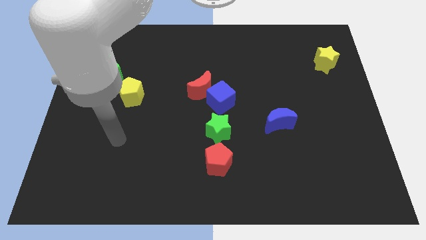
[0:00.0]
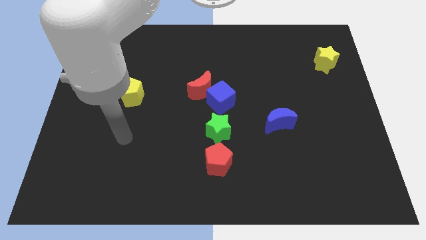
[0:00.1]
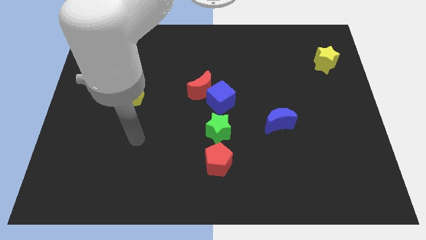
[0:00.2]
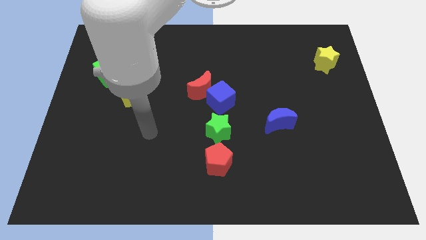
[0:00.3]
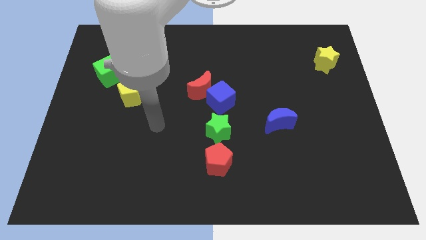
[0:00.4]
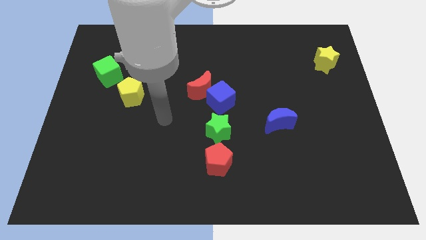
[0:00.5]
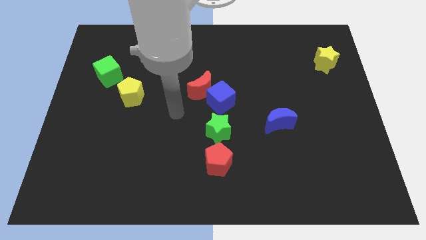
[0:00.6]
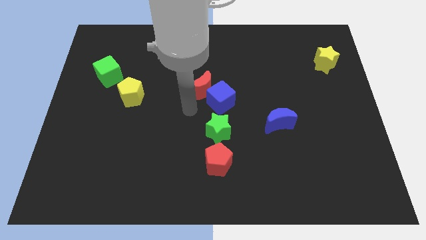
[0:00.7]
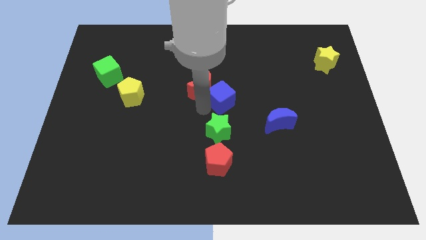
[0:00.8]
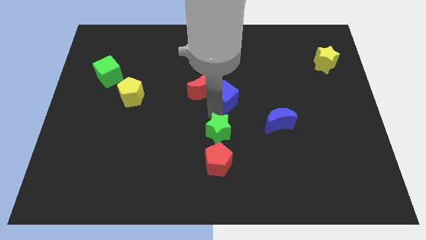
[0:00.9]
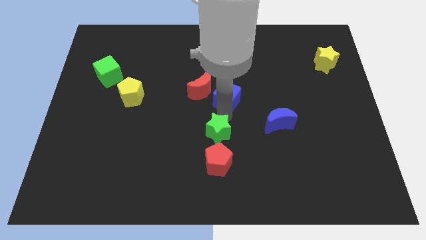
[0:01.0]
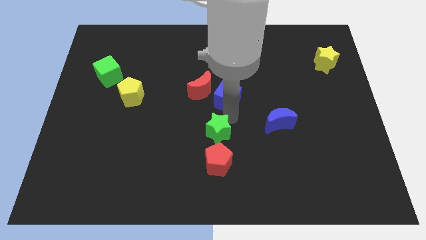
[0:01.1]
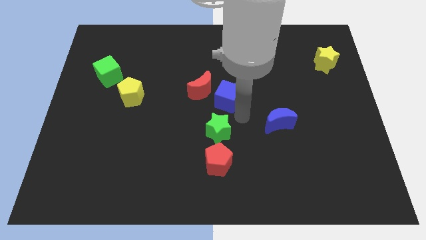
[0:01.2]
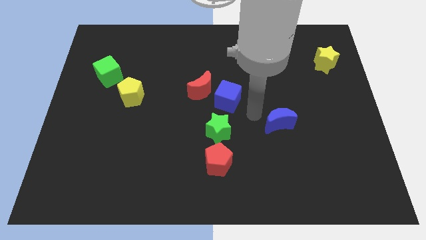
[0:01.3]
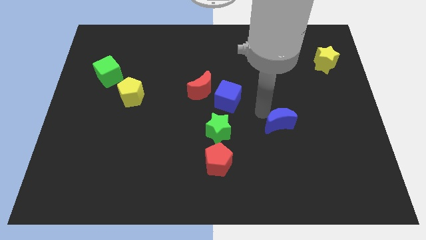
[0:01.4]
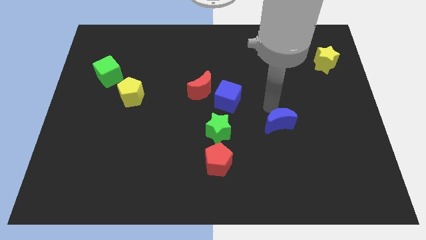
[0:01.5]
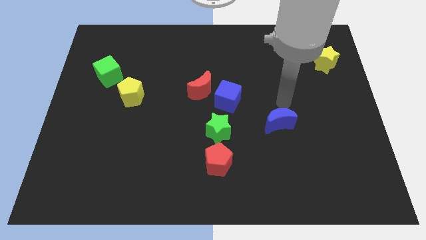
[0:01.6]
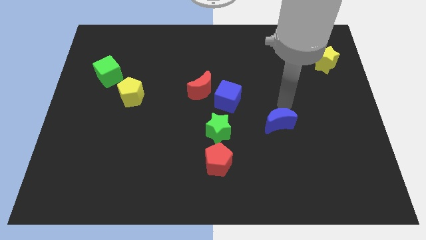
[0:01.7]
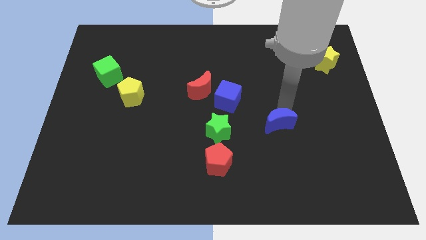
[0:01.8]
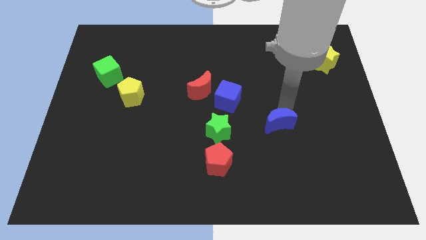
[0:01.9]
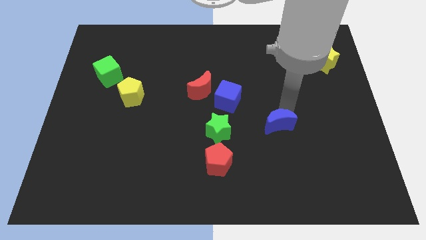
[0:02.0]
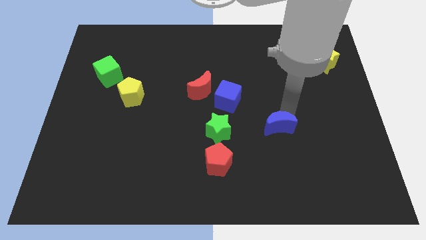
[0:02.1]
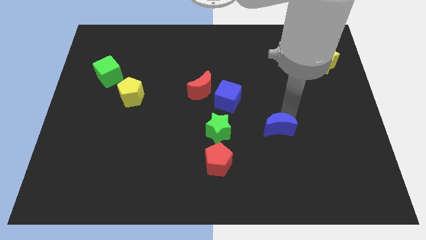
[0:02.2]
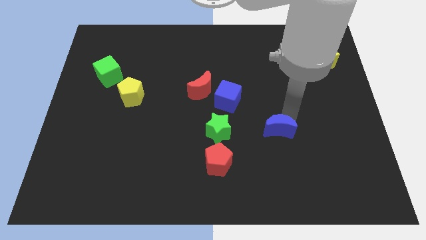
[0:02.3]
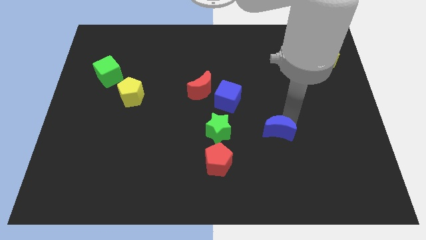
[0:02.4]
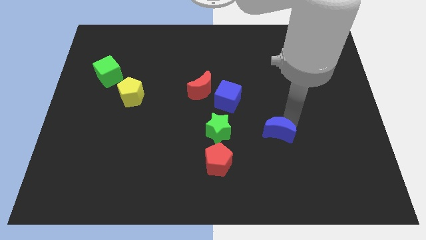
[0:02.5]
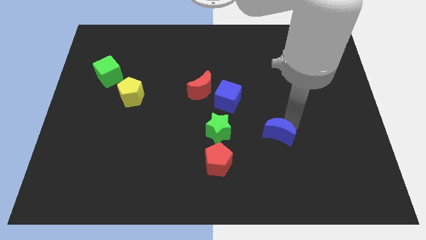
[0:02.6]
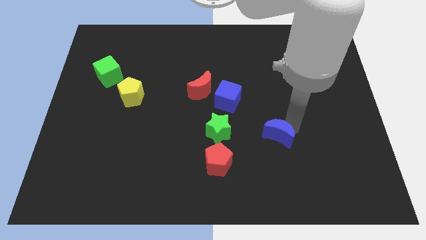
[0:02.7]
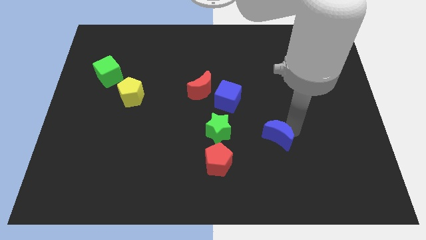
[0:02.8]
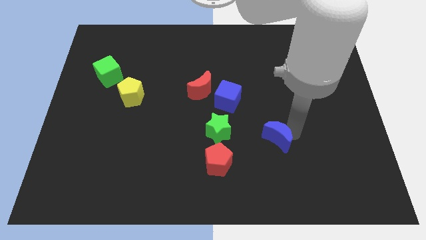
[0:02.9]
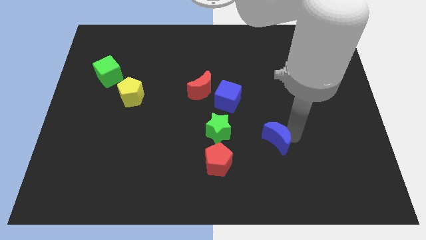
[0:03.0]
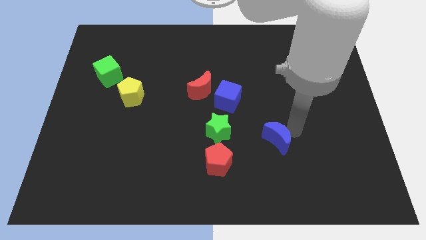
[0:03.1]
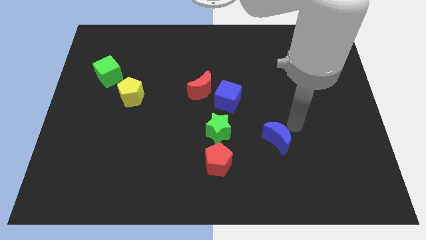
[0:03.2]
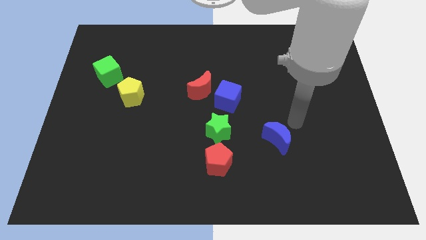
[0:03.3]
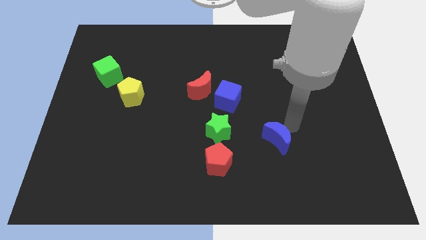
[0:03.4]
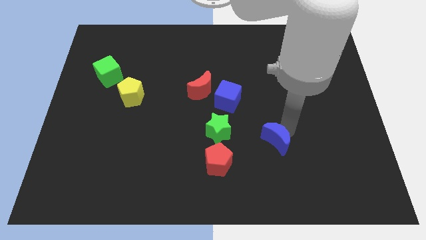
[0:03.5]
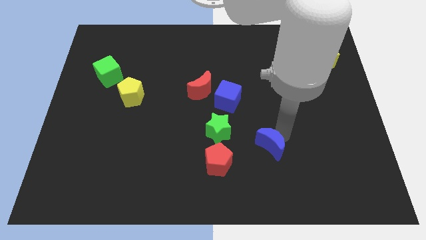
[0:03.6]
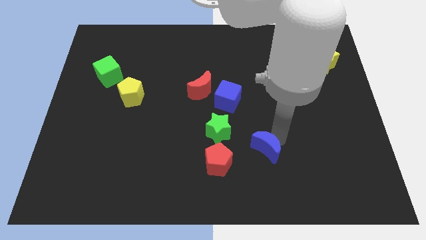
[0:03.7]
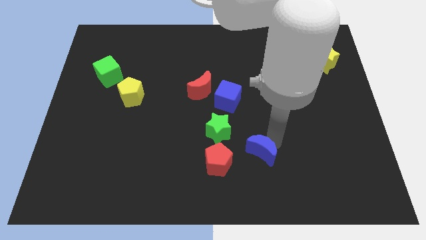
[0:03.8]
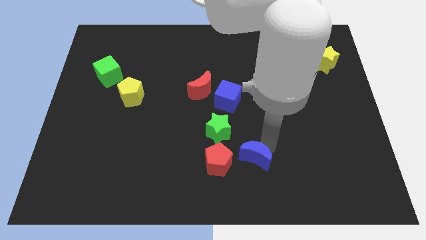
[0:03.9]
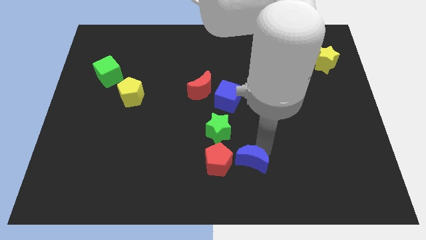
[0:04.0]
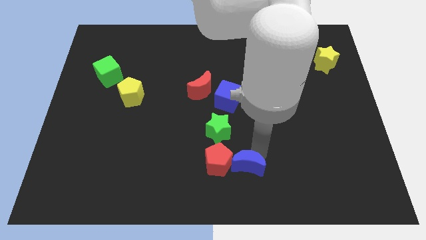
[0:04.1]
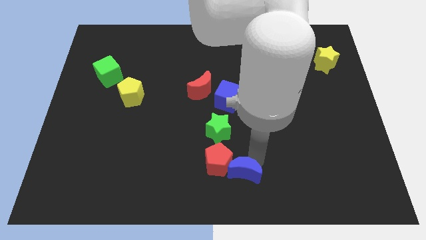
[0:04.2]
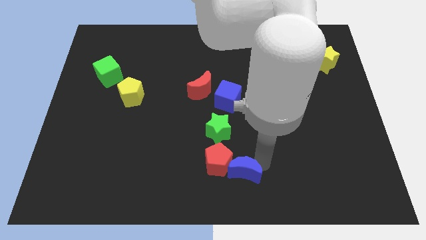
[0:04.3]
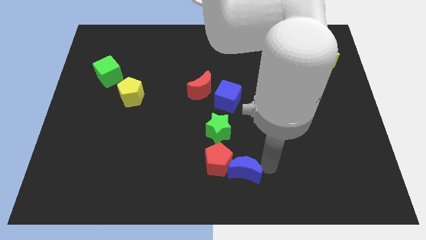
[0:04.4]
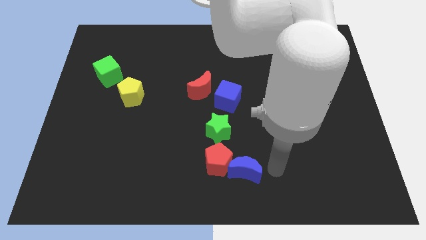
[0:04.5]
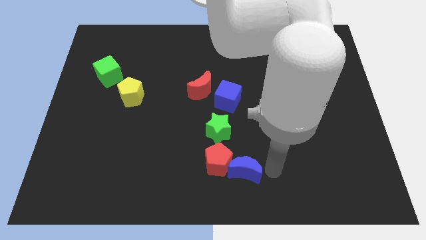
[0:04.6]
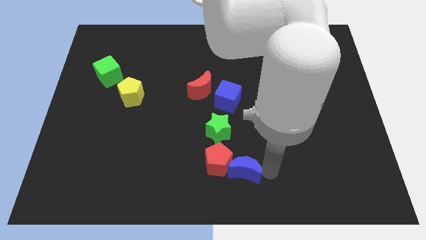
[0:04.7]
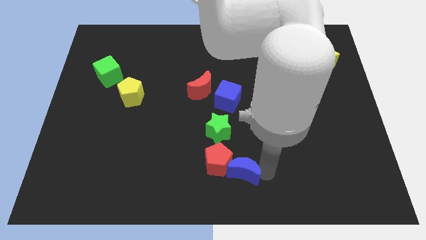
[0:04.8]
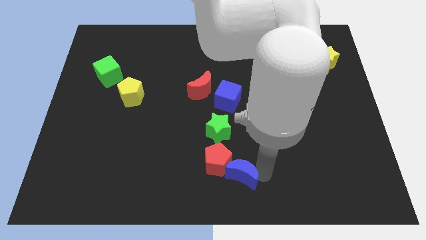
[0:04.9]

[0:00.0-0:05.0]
slide the blue moon below the green star
